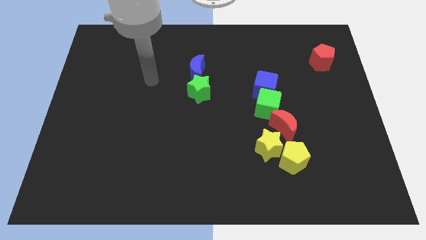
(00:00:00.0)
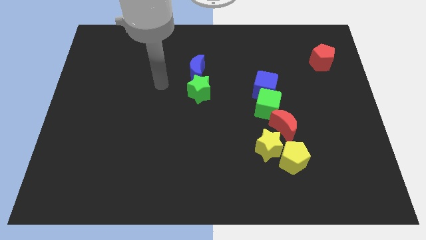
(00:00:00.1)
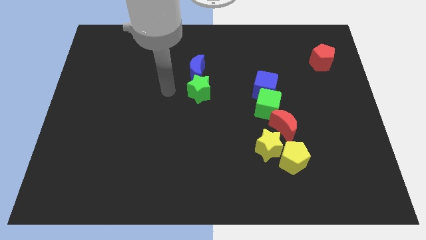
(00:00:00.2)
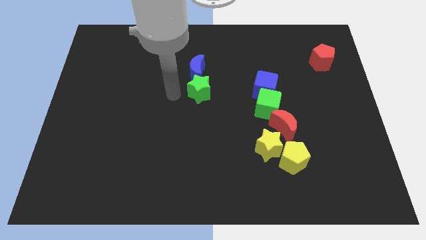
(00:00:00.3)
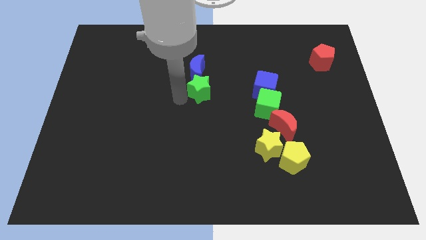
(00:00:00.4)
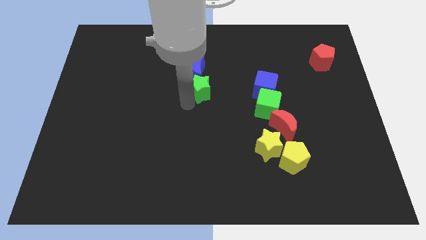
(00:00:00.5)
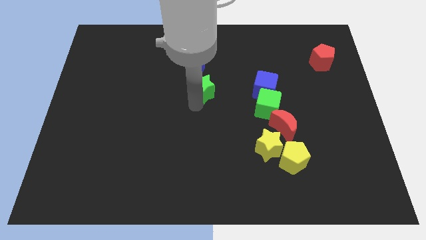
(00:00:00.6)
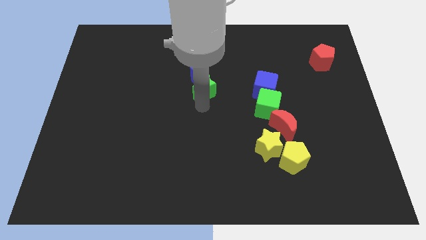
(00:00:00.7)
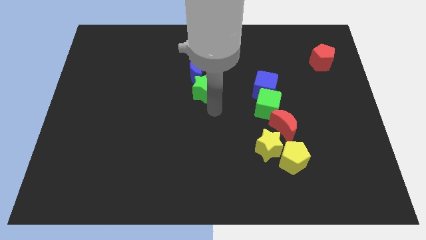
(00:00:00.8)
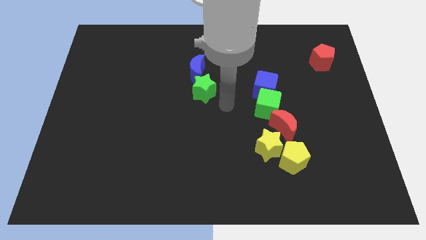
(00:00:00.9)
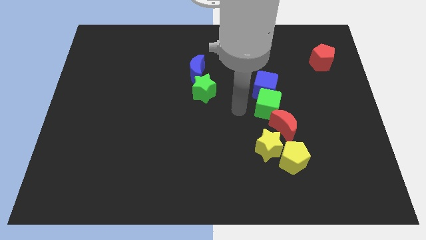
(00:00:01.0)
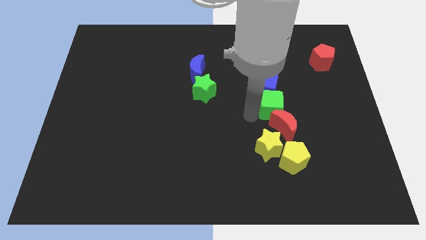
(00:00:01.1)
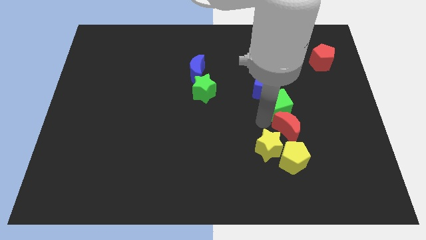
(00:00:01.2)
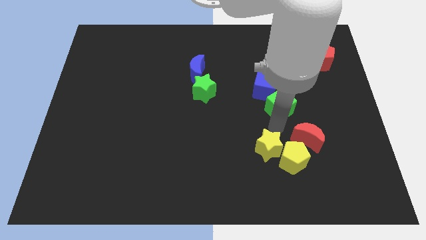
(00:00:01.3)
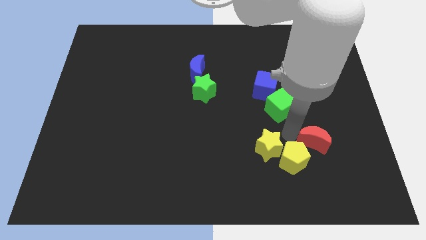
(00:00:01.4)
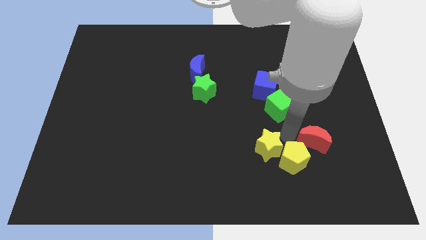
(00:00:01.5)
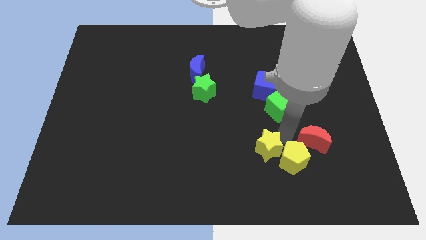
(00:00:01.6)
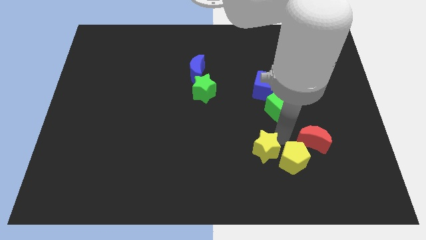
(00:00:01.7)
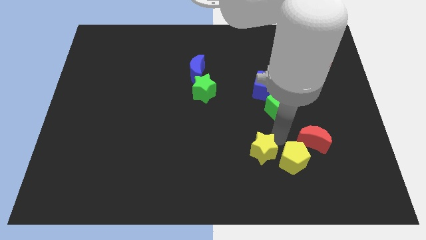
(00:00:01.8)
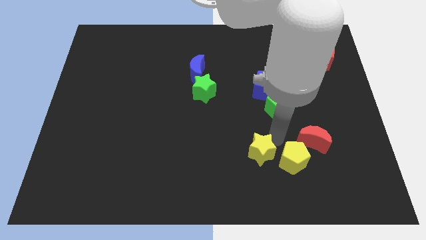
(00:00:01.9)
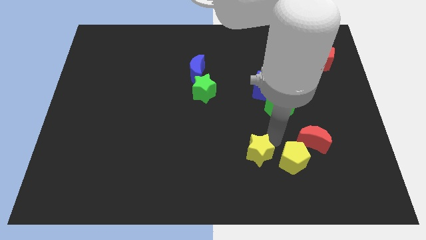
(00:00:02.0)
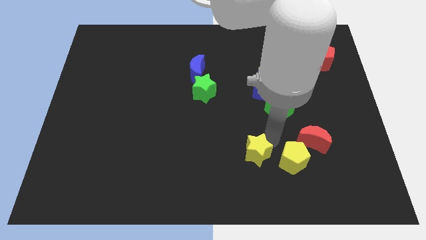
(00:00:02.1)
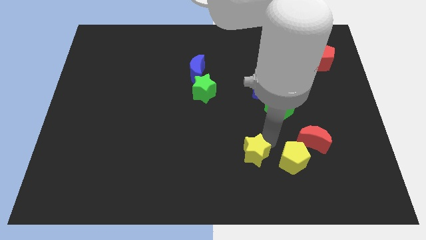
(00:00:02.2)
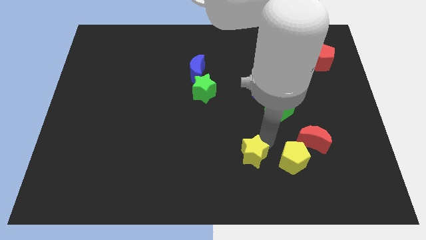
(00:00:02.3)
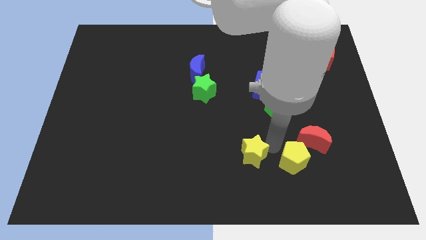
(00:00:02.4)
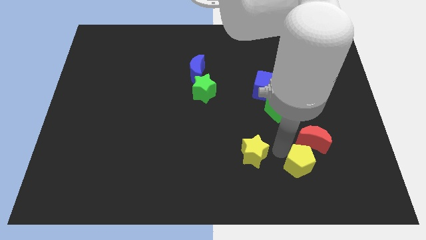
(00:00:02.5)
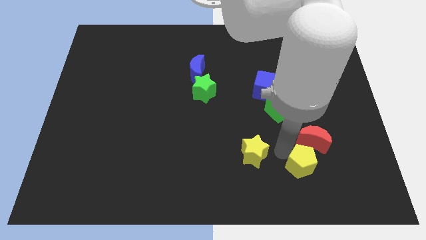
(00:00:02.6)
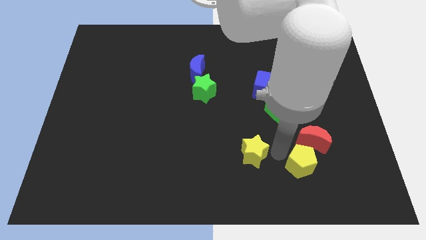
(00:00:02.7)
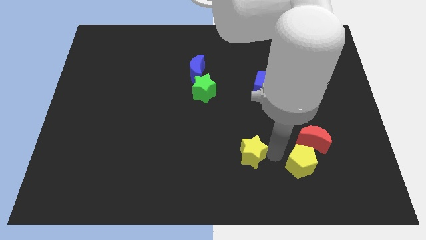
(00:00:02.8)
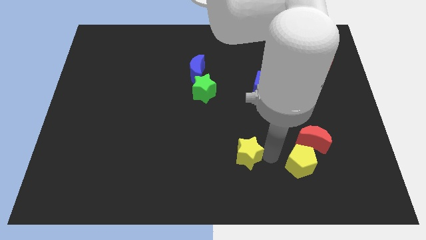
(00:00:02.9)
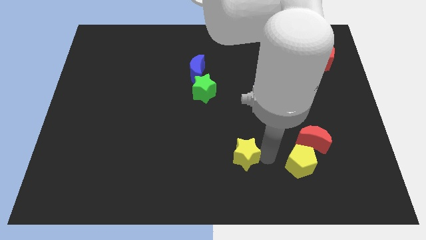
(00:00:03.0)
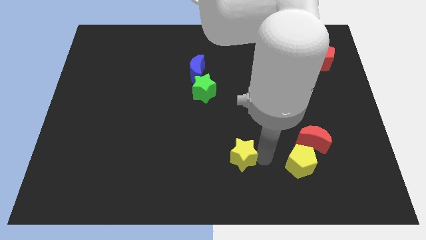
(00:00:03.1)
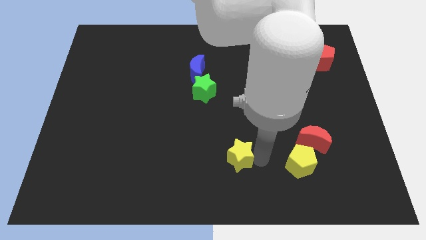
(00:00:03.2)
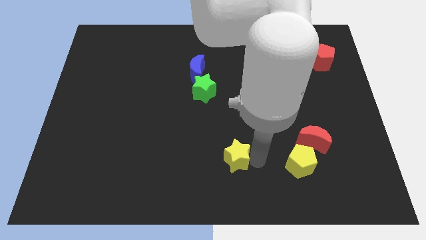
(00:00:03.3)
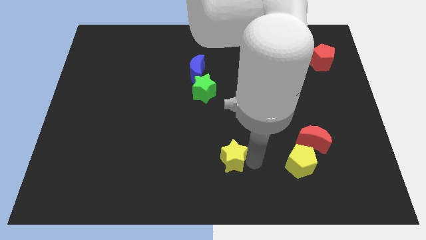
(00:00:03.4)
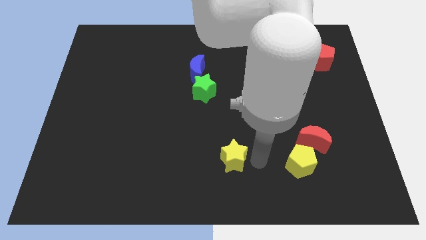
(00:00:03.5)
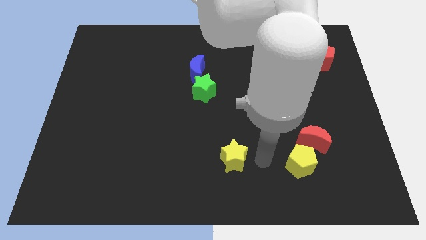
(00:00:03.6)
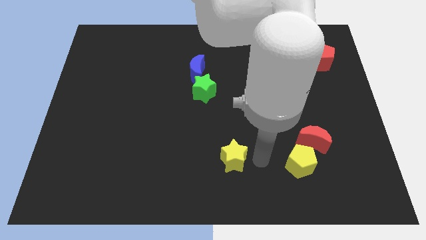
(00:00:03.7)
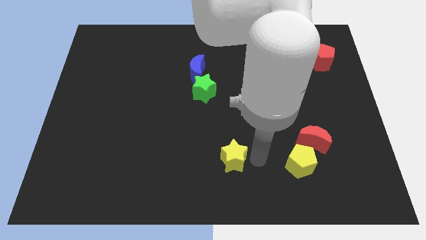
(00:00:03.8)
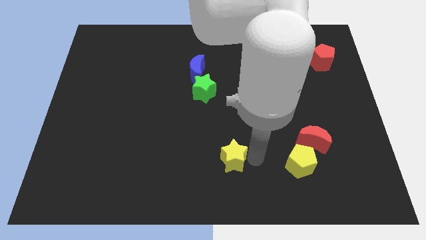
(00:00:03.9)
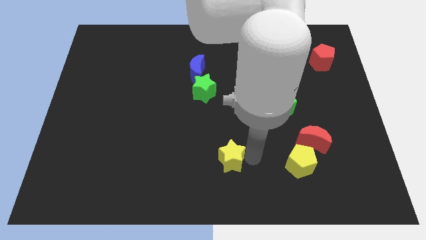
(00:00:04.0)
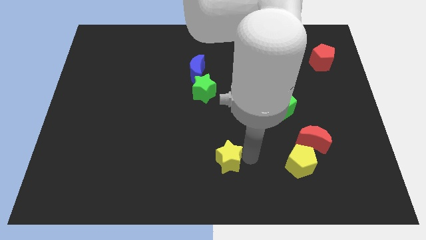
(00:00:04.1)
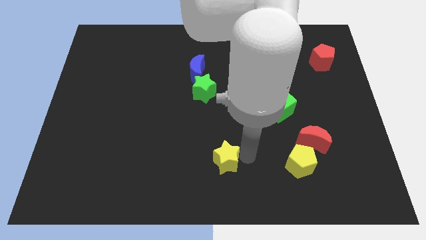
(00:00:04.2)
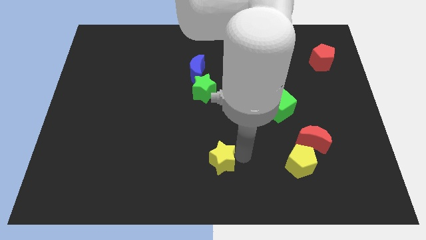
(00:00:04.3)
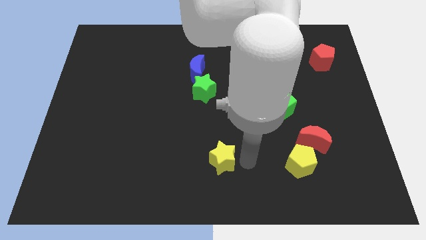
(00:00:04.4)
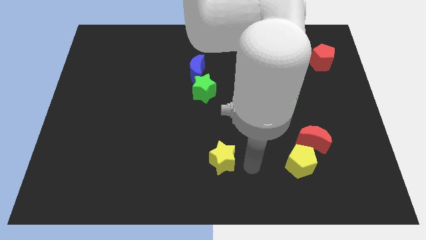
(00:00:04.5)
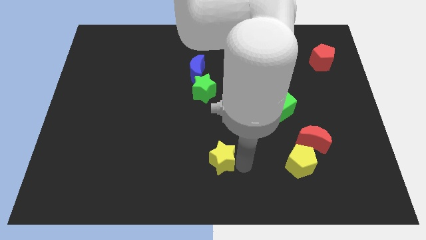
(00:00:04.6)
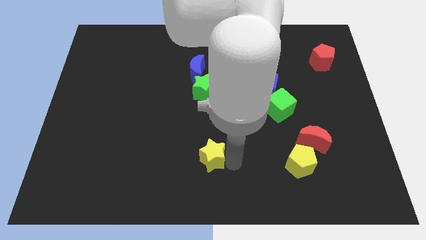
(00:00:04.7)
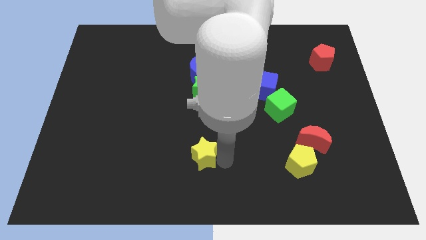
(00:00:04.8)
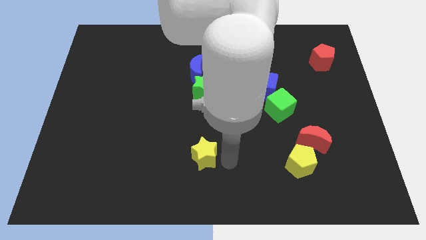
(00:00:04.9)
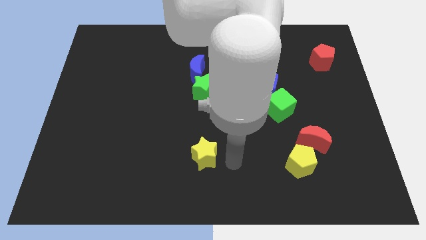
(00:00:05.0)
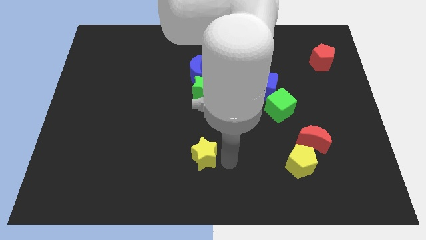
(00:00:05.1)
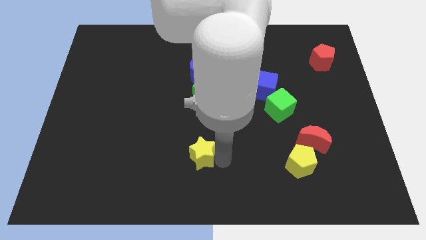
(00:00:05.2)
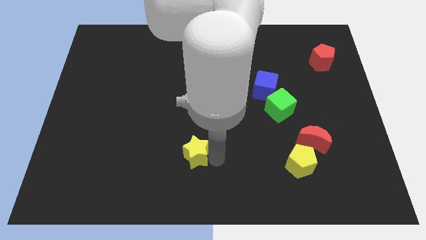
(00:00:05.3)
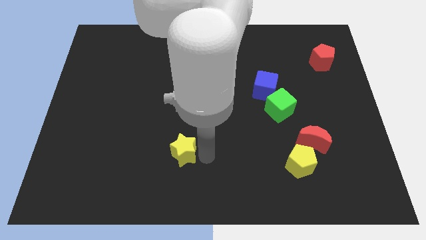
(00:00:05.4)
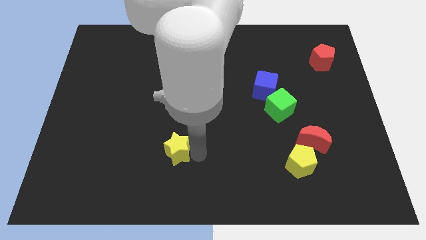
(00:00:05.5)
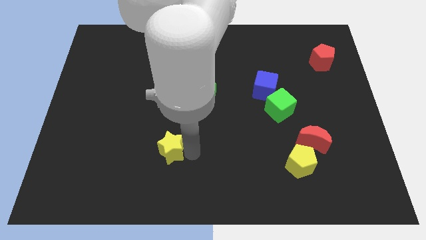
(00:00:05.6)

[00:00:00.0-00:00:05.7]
move the yellow star left

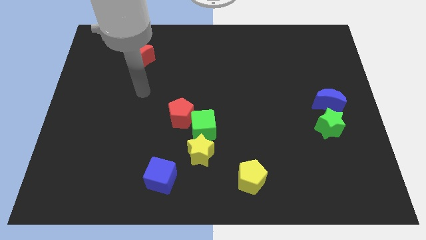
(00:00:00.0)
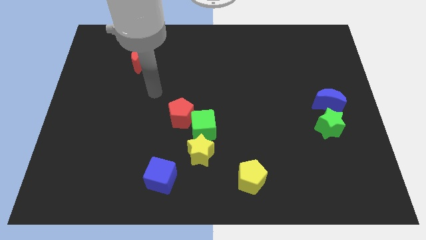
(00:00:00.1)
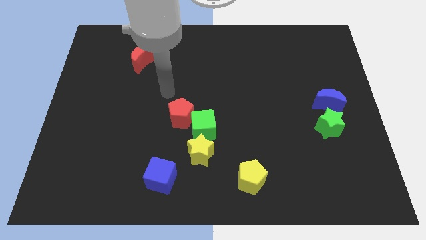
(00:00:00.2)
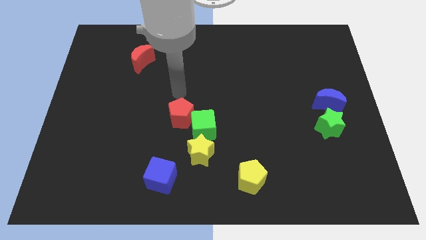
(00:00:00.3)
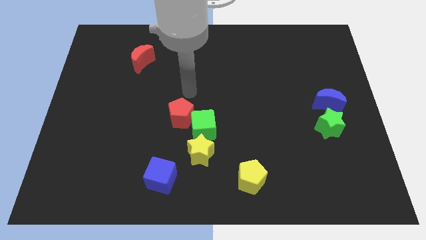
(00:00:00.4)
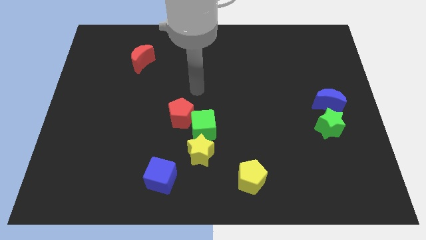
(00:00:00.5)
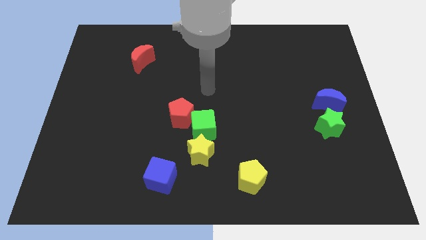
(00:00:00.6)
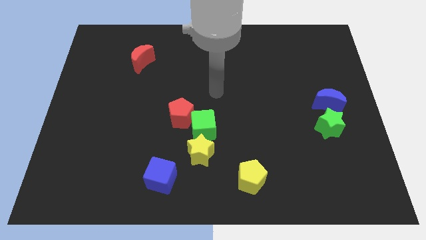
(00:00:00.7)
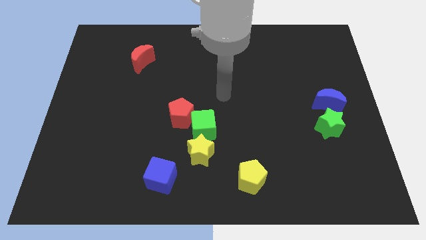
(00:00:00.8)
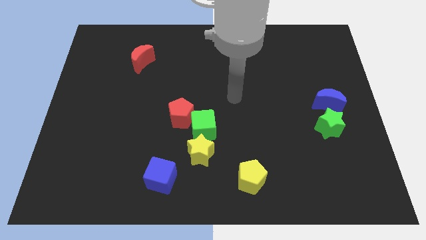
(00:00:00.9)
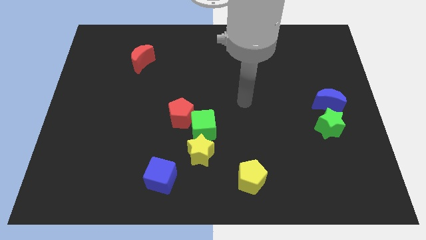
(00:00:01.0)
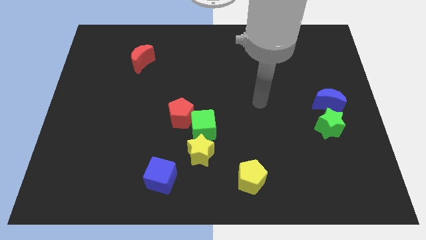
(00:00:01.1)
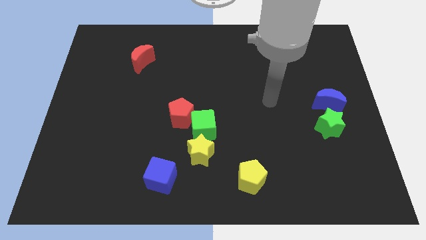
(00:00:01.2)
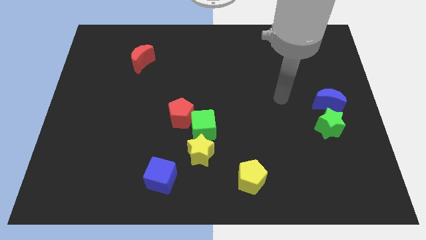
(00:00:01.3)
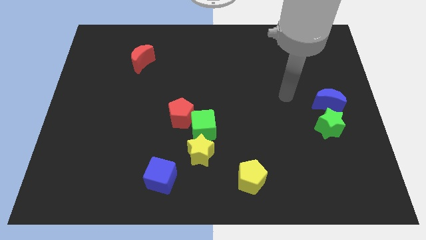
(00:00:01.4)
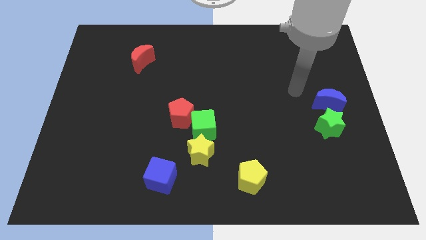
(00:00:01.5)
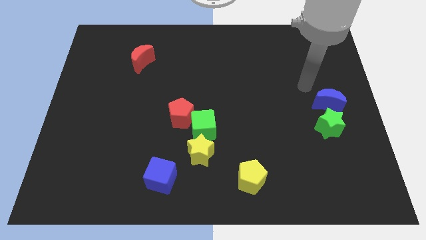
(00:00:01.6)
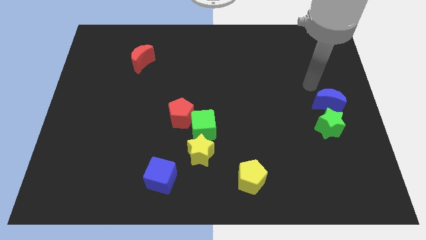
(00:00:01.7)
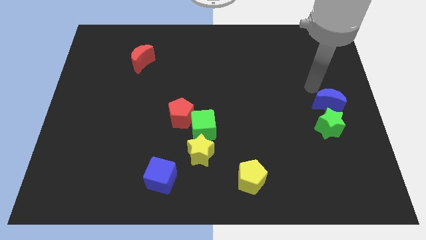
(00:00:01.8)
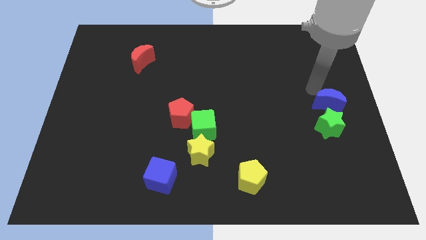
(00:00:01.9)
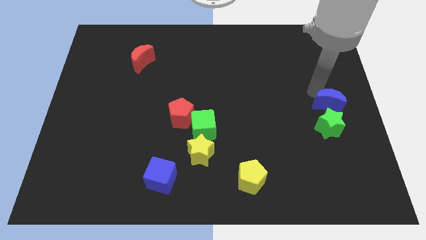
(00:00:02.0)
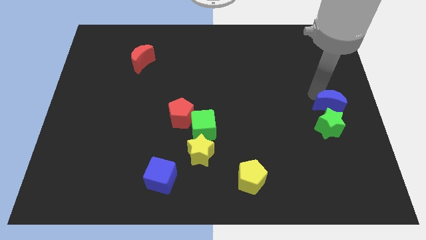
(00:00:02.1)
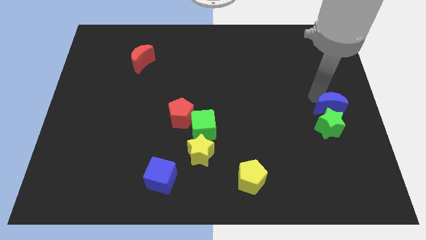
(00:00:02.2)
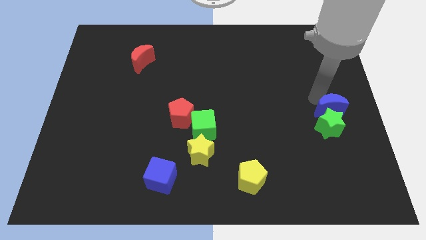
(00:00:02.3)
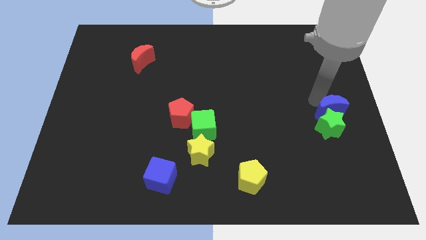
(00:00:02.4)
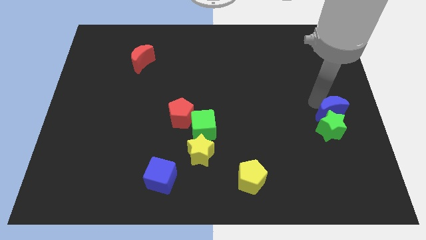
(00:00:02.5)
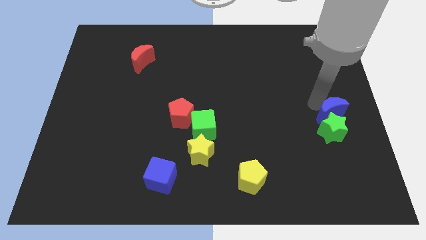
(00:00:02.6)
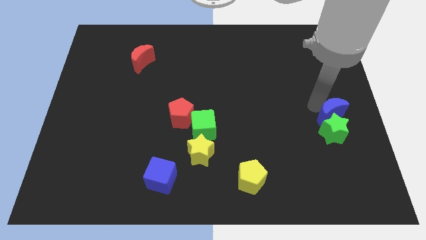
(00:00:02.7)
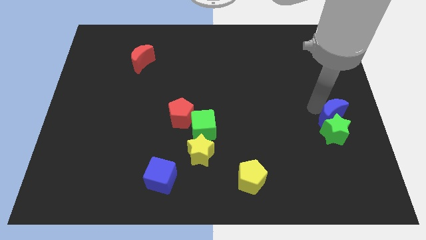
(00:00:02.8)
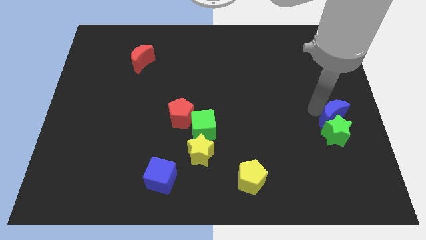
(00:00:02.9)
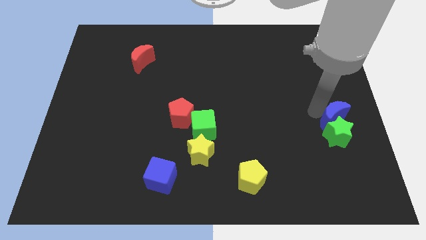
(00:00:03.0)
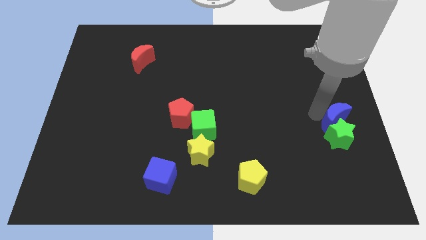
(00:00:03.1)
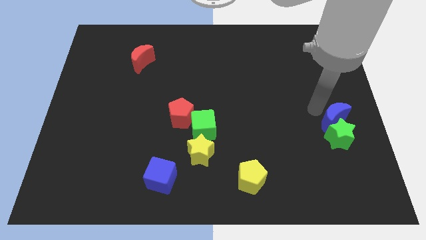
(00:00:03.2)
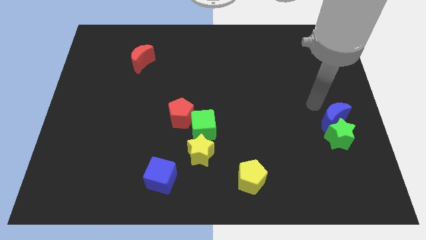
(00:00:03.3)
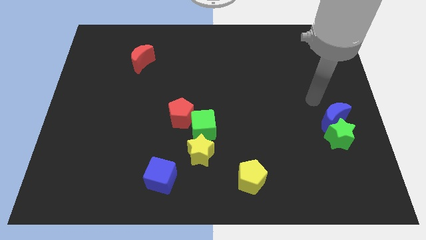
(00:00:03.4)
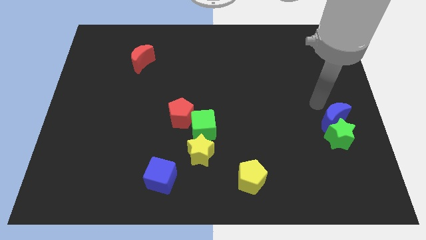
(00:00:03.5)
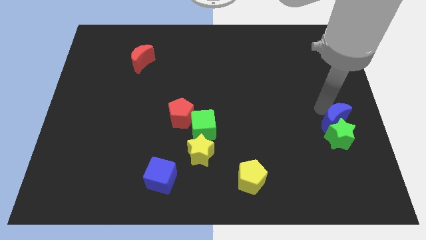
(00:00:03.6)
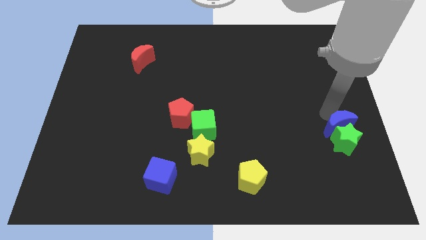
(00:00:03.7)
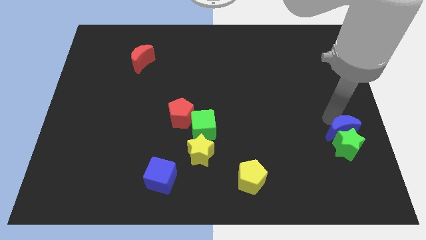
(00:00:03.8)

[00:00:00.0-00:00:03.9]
slide the blue moon downwards a little bit
